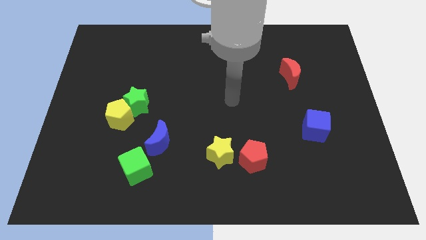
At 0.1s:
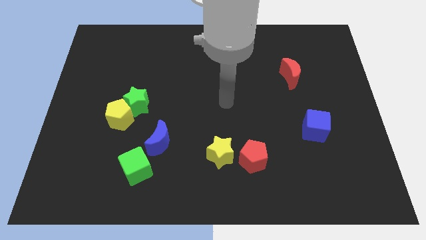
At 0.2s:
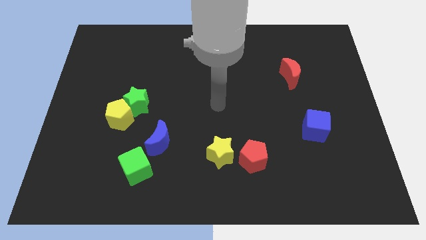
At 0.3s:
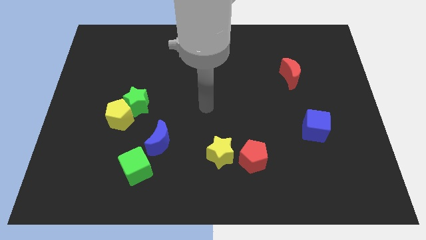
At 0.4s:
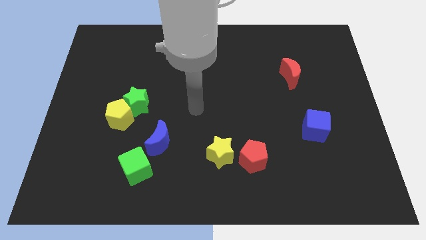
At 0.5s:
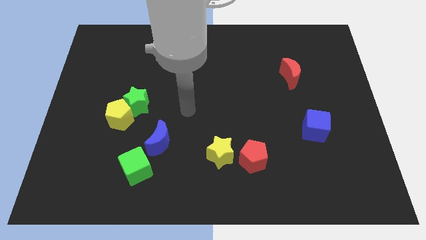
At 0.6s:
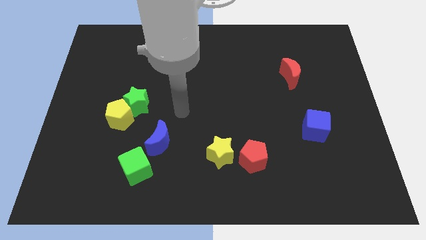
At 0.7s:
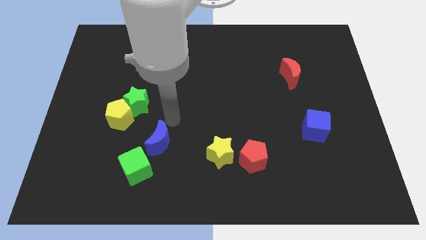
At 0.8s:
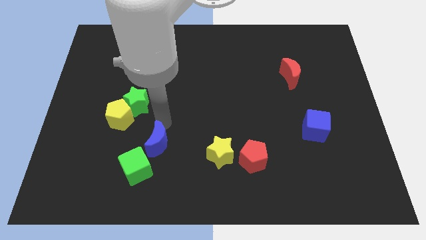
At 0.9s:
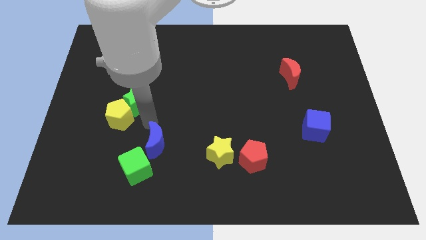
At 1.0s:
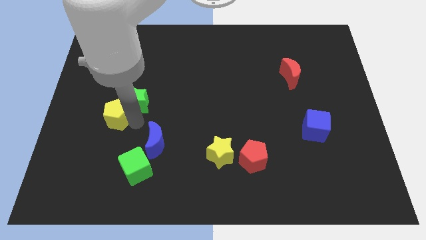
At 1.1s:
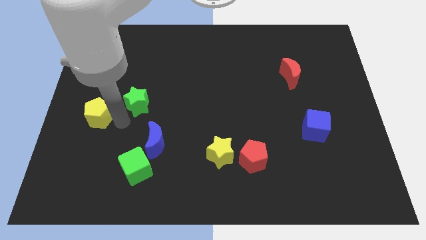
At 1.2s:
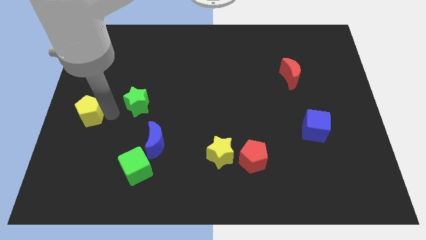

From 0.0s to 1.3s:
separate the green star from the yellow pentagon

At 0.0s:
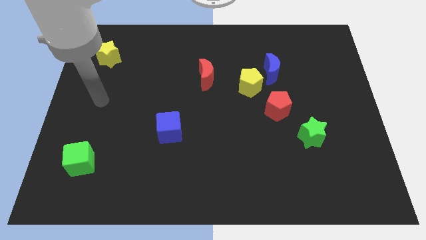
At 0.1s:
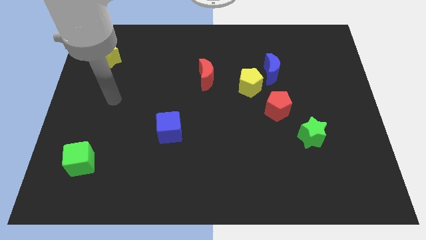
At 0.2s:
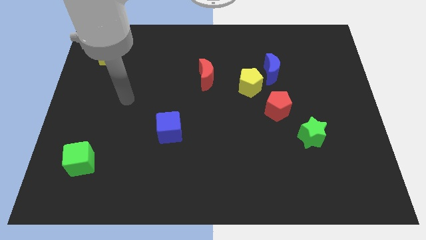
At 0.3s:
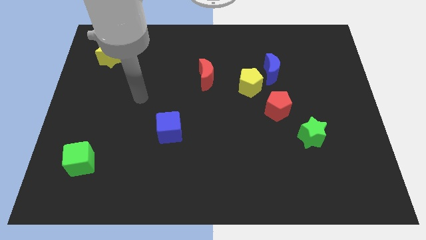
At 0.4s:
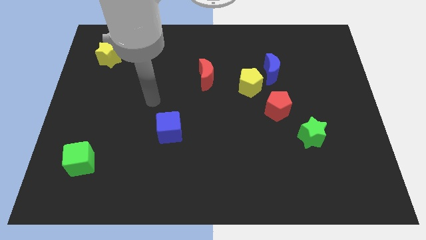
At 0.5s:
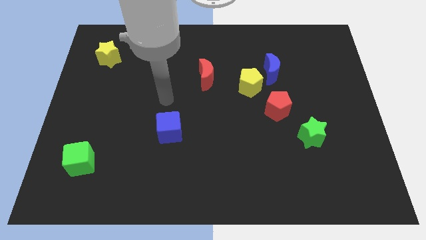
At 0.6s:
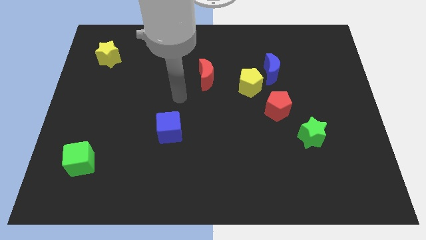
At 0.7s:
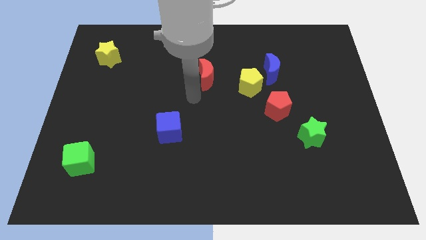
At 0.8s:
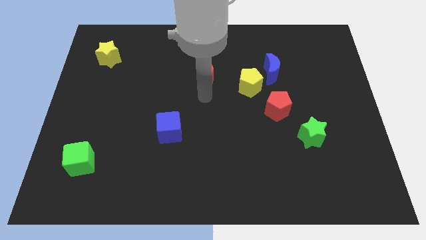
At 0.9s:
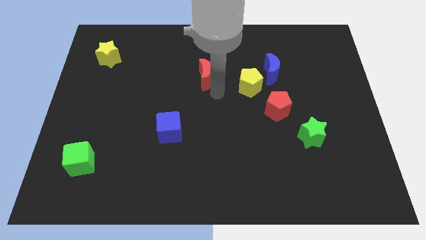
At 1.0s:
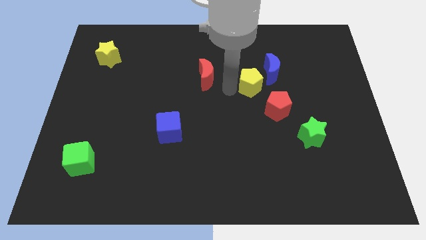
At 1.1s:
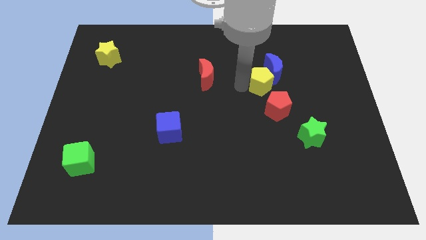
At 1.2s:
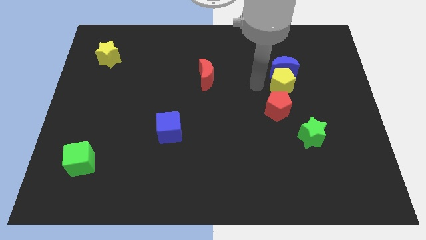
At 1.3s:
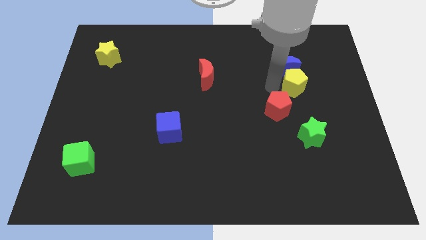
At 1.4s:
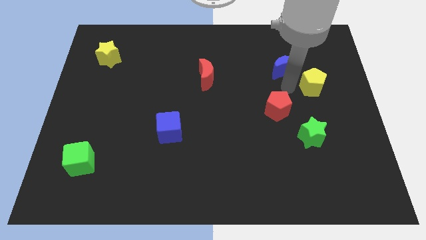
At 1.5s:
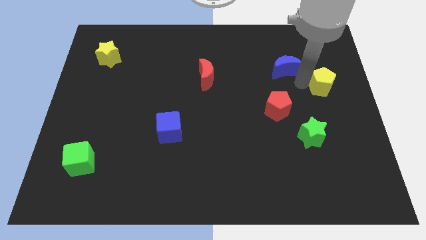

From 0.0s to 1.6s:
move the blue moon away from the yellow pentagon

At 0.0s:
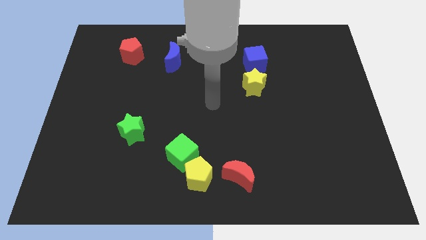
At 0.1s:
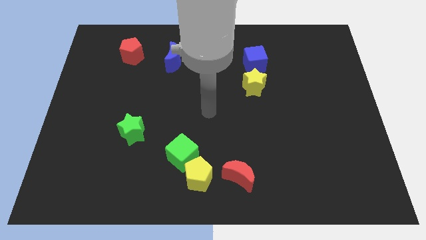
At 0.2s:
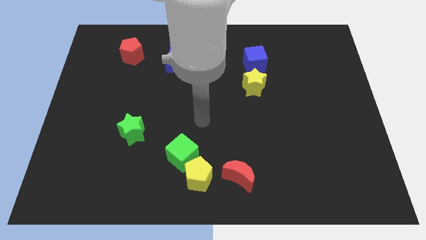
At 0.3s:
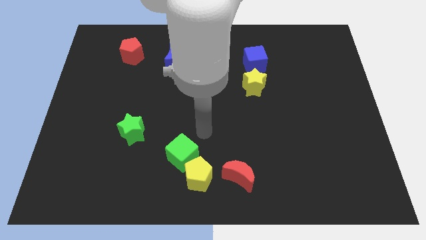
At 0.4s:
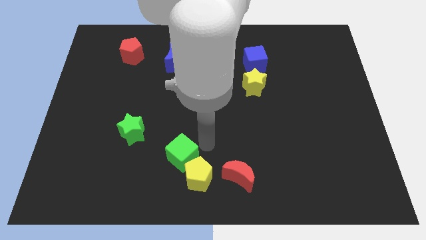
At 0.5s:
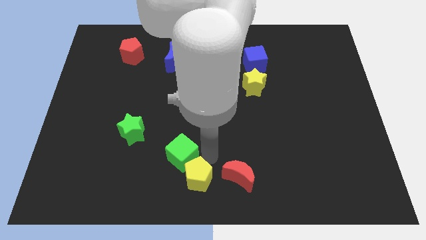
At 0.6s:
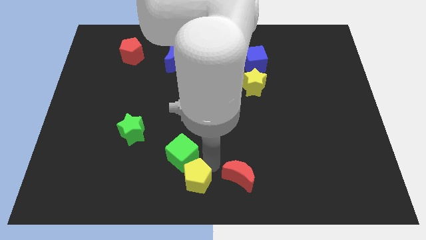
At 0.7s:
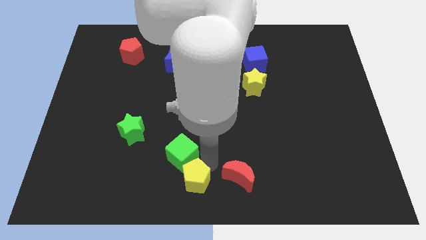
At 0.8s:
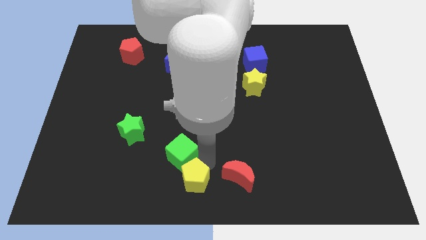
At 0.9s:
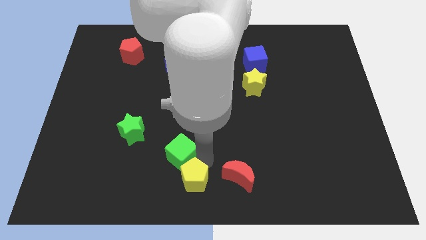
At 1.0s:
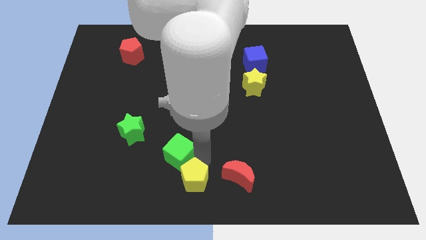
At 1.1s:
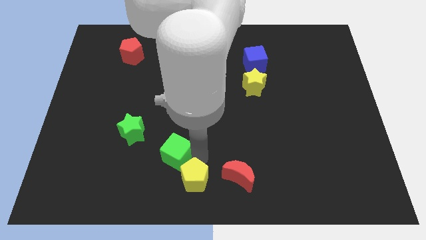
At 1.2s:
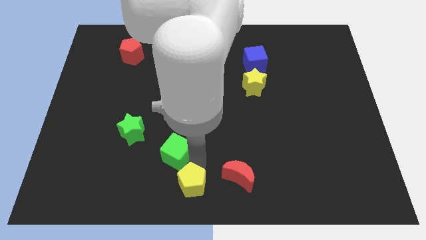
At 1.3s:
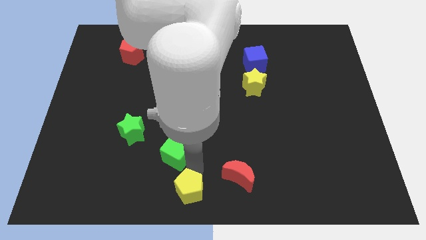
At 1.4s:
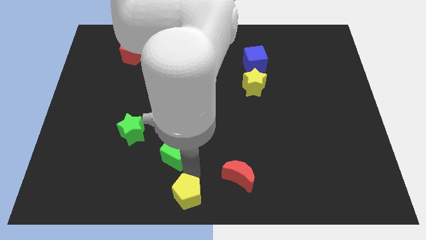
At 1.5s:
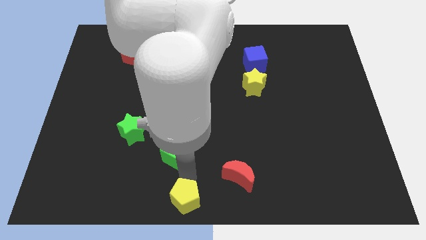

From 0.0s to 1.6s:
pull the green cube apart from the yellow pentagon

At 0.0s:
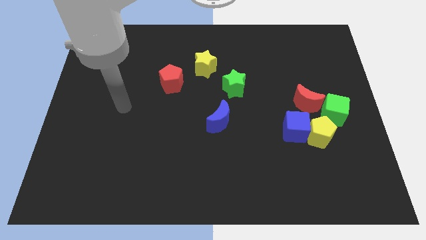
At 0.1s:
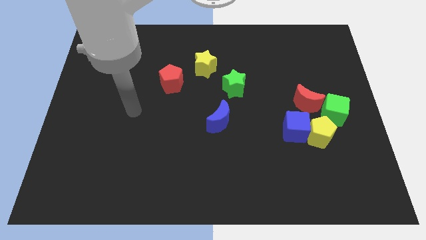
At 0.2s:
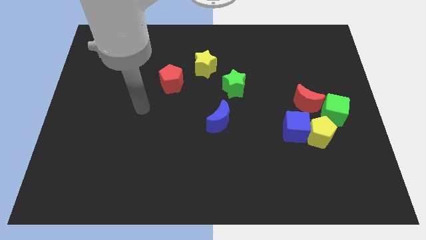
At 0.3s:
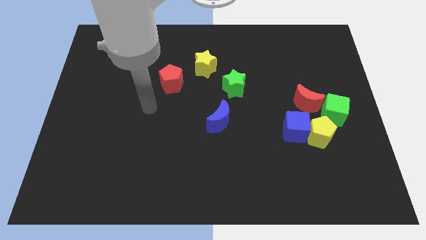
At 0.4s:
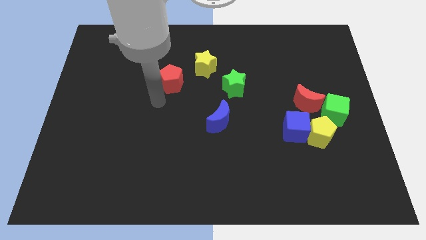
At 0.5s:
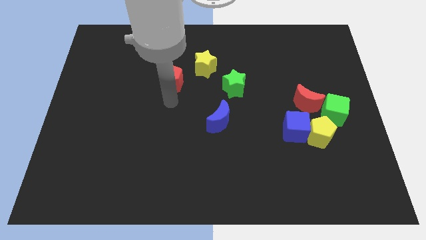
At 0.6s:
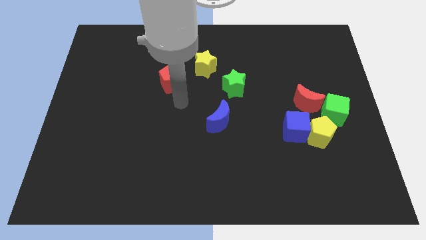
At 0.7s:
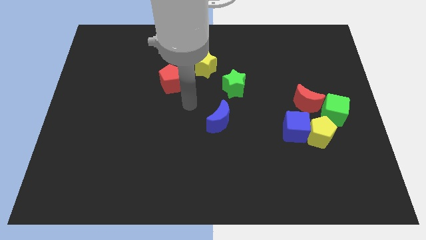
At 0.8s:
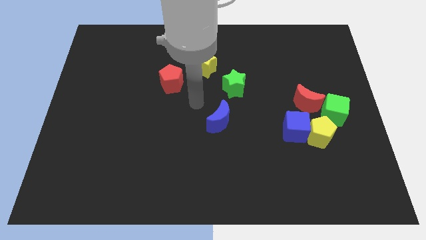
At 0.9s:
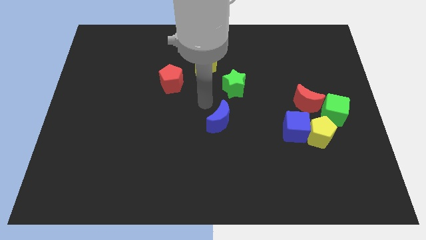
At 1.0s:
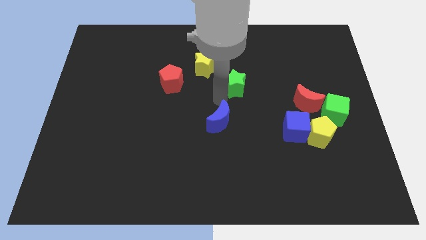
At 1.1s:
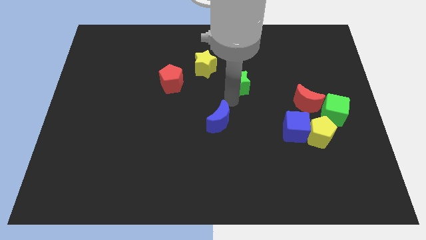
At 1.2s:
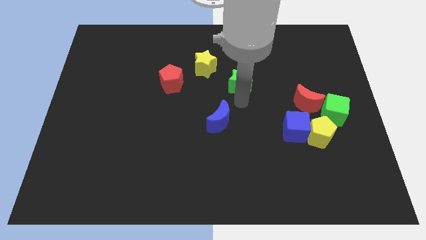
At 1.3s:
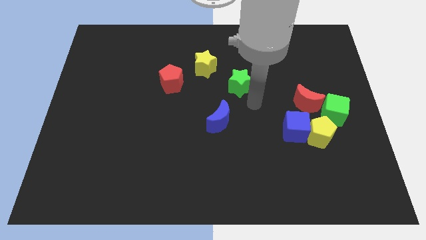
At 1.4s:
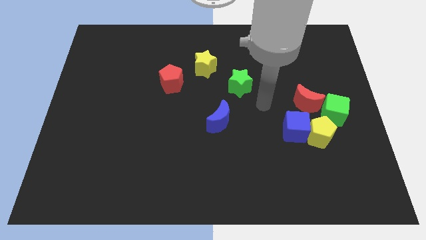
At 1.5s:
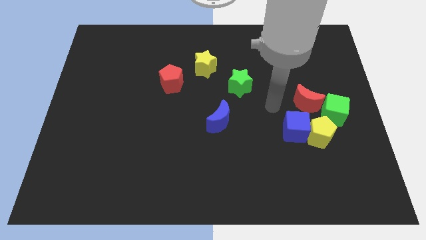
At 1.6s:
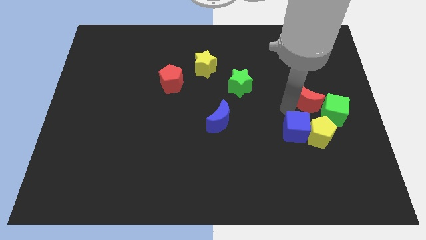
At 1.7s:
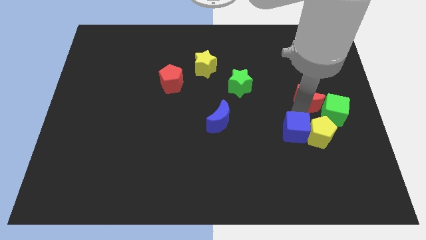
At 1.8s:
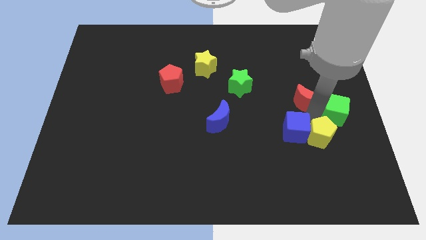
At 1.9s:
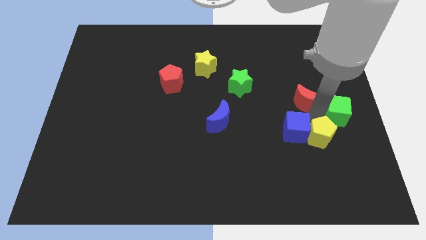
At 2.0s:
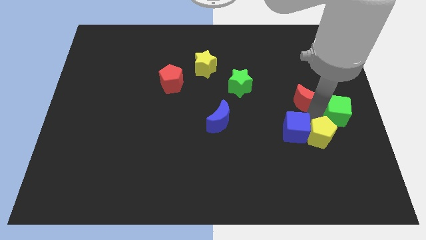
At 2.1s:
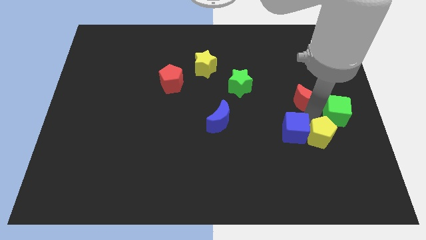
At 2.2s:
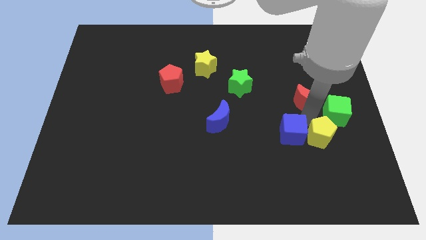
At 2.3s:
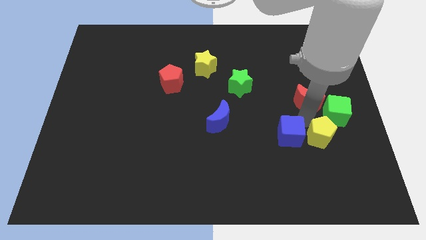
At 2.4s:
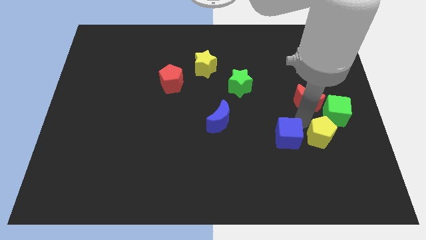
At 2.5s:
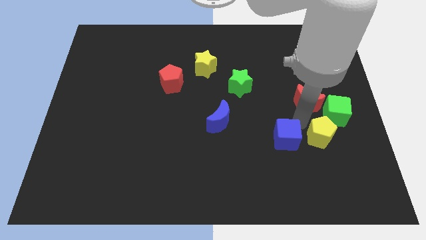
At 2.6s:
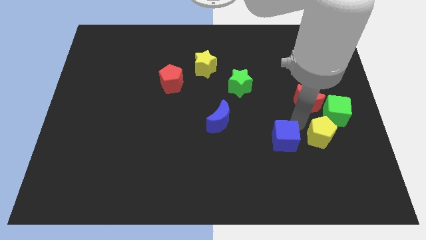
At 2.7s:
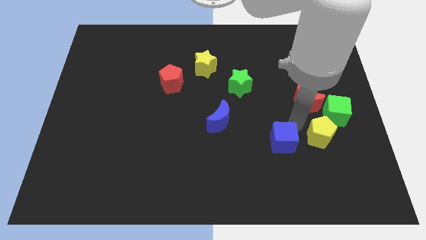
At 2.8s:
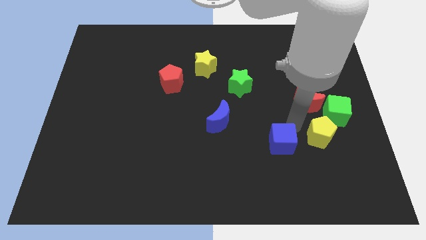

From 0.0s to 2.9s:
move the blue cube away from the yellow pentagon and red moon

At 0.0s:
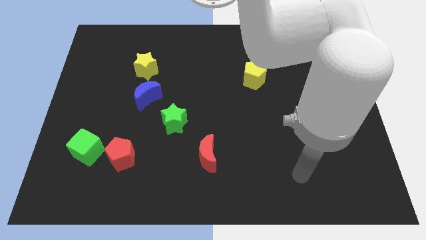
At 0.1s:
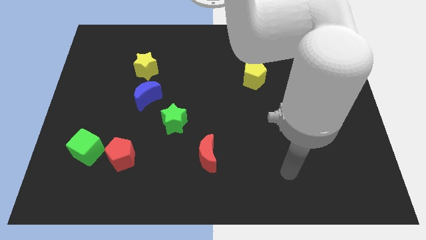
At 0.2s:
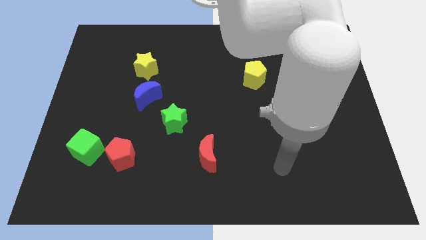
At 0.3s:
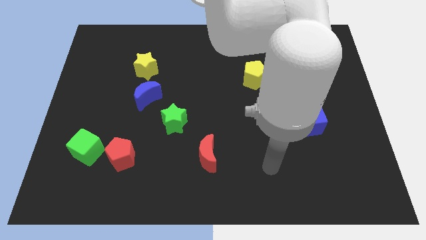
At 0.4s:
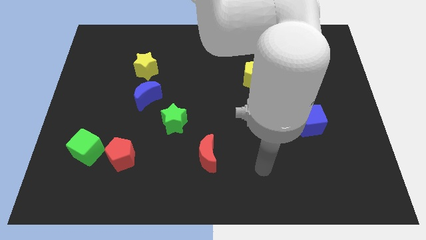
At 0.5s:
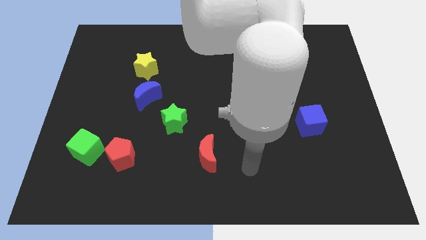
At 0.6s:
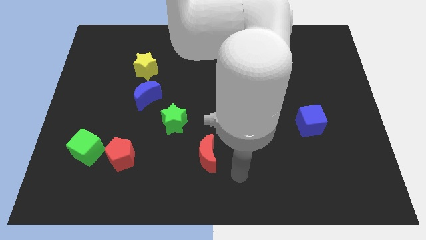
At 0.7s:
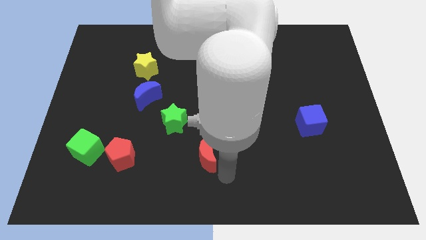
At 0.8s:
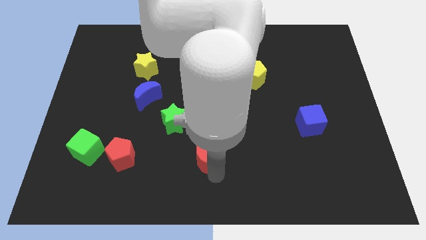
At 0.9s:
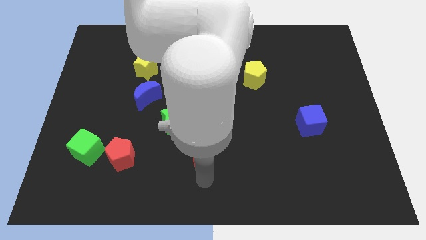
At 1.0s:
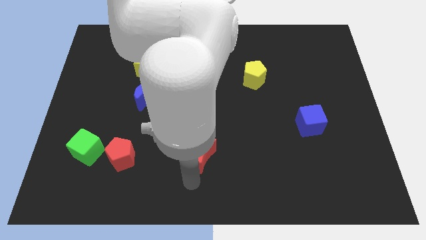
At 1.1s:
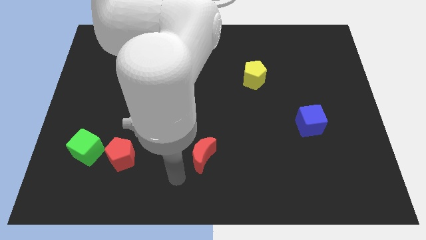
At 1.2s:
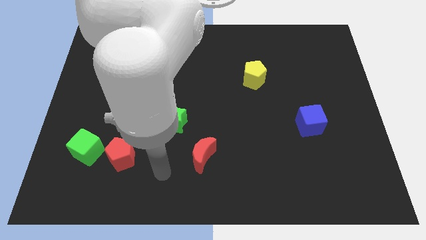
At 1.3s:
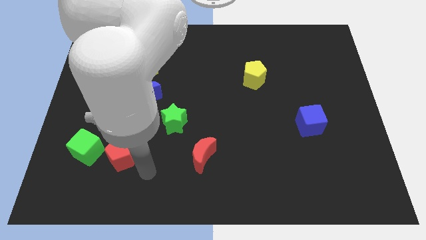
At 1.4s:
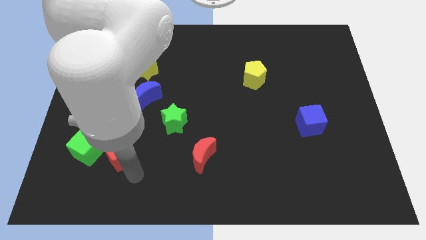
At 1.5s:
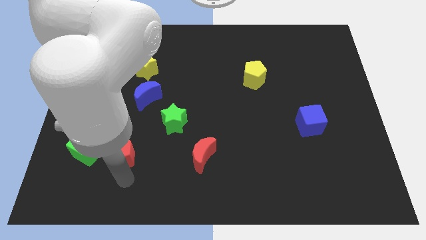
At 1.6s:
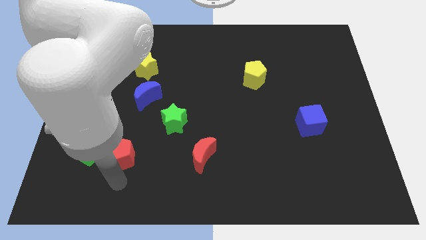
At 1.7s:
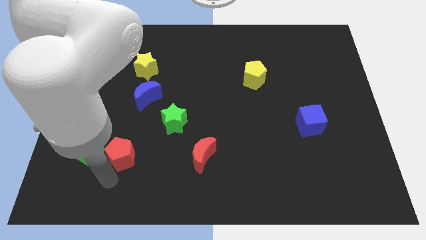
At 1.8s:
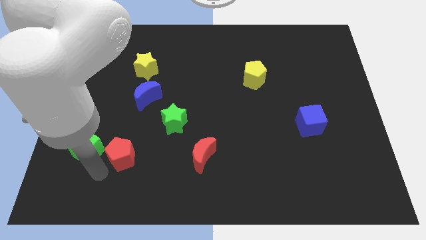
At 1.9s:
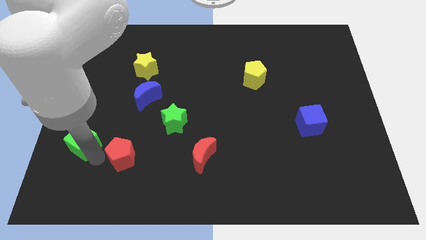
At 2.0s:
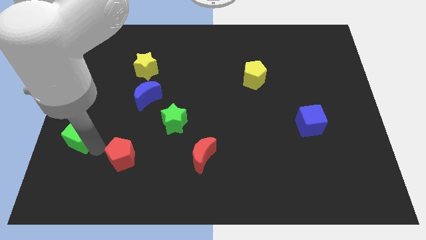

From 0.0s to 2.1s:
separate the red pentagon from the green cube
